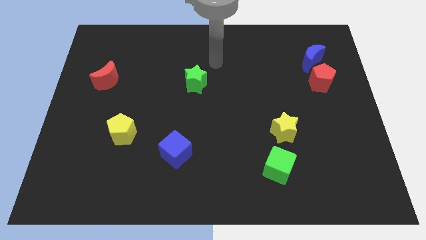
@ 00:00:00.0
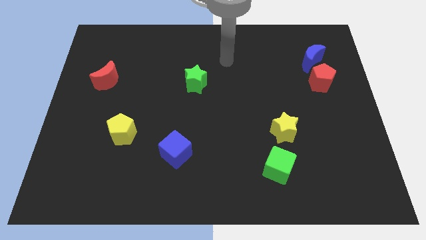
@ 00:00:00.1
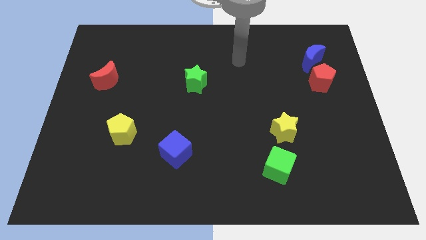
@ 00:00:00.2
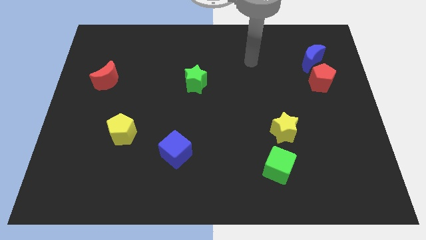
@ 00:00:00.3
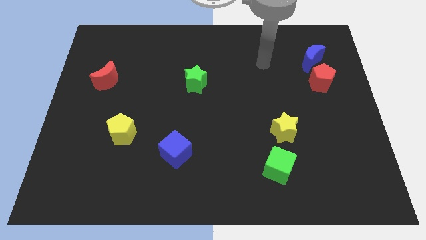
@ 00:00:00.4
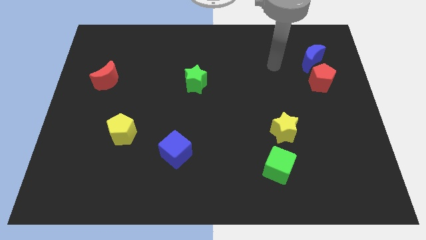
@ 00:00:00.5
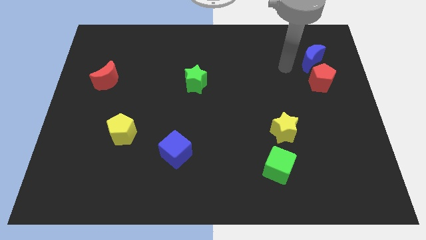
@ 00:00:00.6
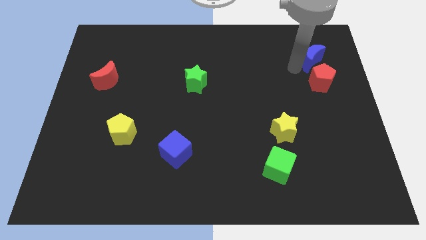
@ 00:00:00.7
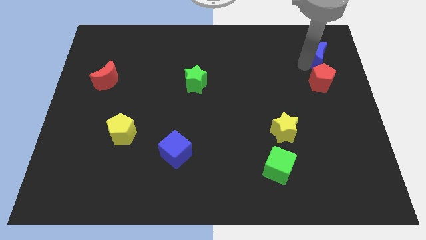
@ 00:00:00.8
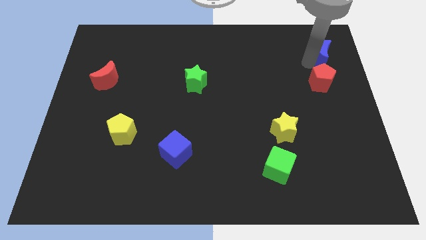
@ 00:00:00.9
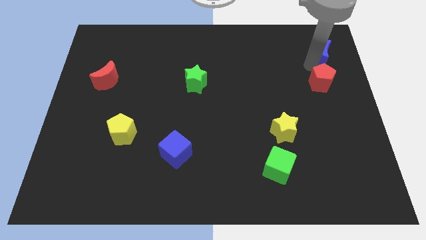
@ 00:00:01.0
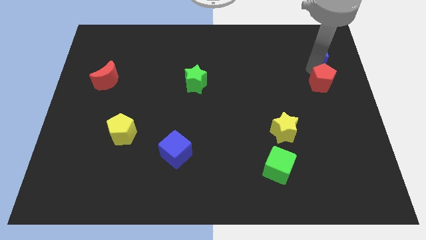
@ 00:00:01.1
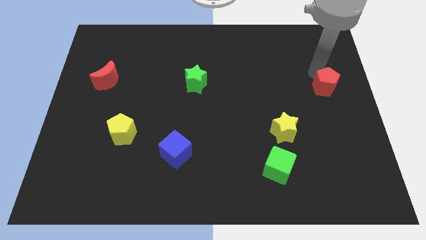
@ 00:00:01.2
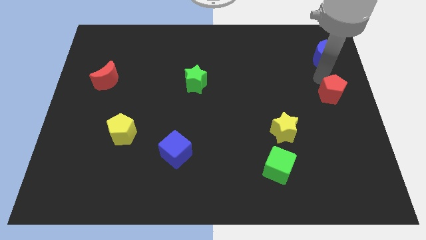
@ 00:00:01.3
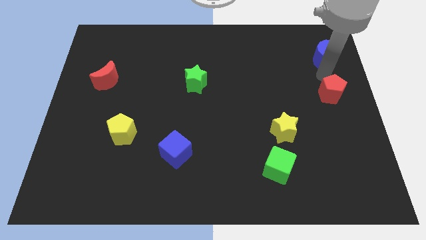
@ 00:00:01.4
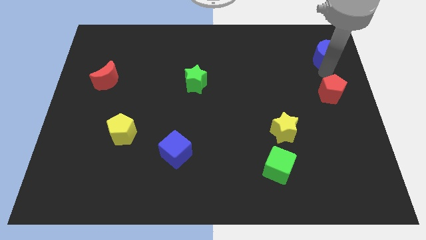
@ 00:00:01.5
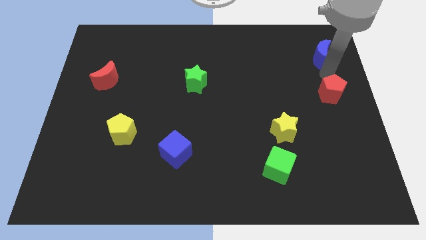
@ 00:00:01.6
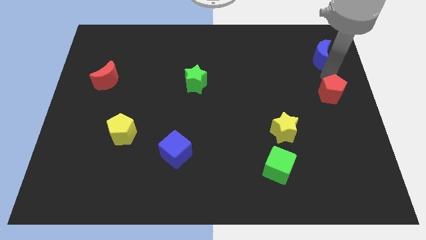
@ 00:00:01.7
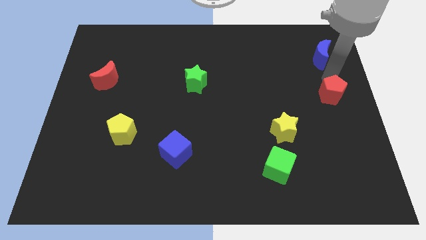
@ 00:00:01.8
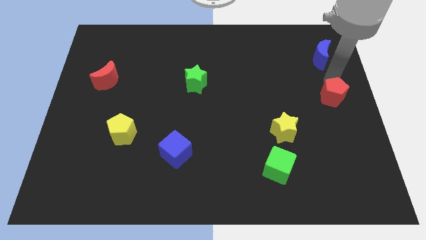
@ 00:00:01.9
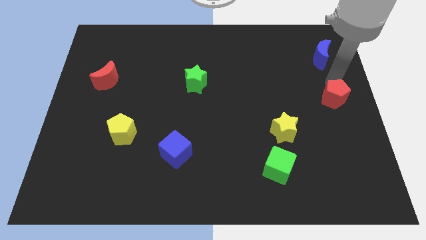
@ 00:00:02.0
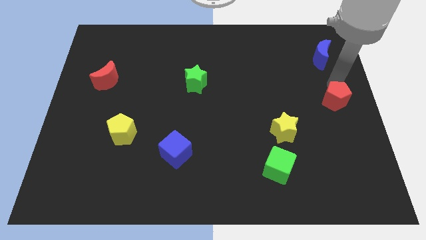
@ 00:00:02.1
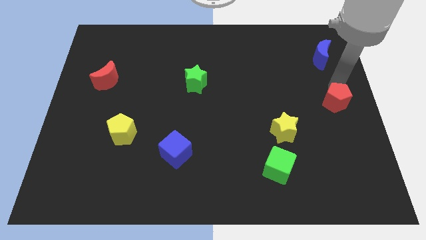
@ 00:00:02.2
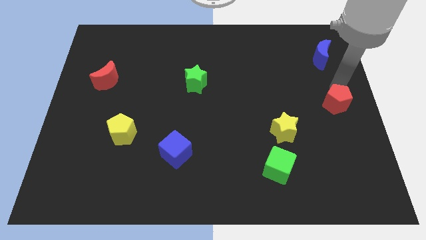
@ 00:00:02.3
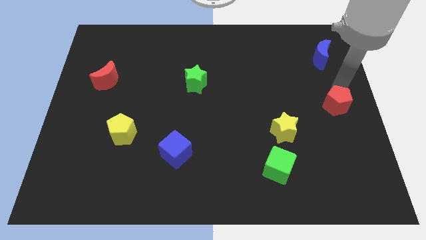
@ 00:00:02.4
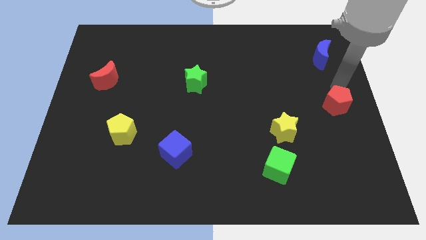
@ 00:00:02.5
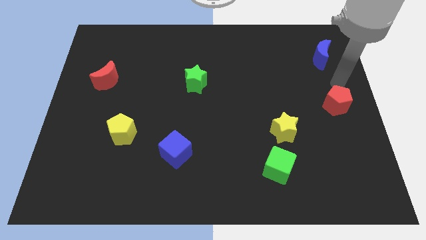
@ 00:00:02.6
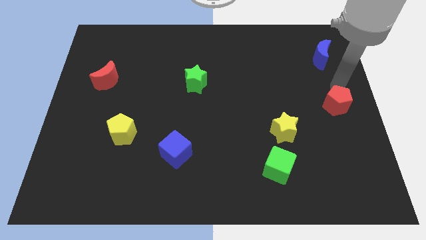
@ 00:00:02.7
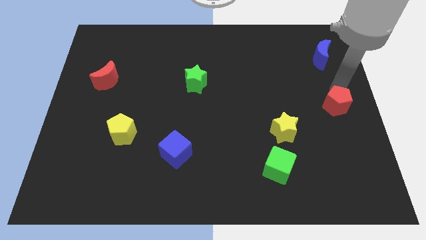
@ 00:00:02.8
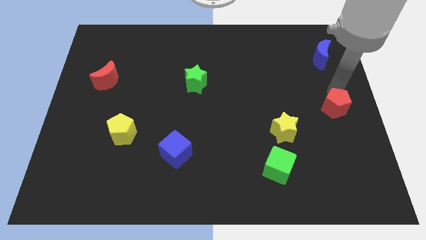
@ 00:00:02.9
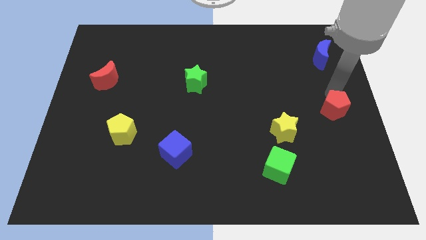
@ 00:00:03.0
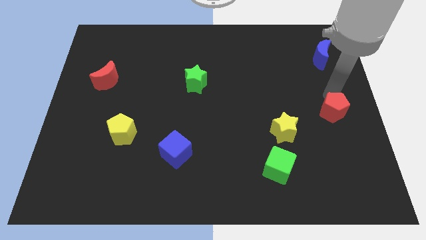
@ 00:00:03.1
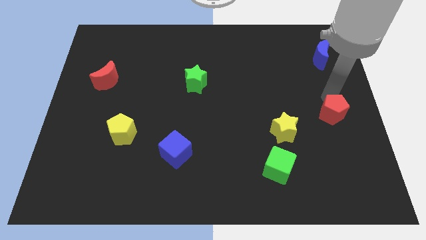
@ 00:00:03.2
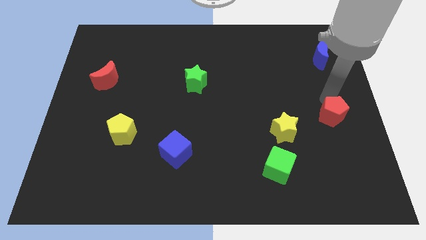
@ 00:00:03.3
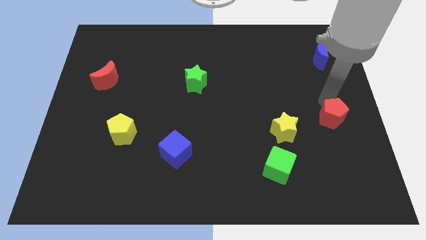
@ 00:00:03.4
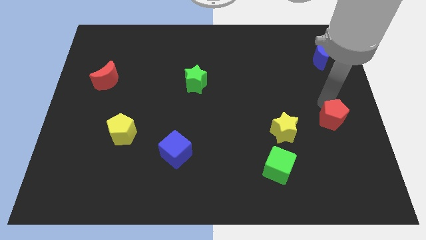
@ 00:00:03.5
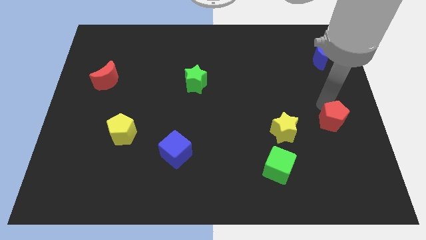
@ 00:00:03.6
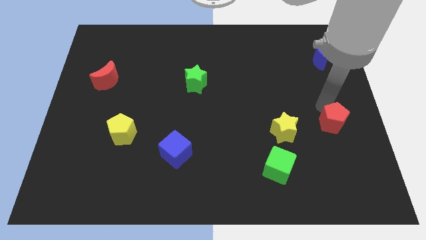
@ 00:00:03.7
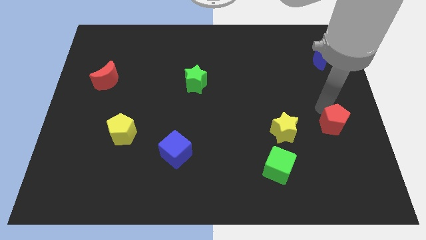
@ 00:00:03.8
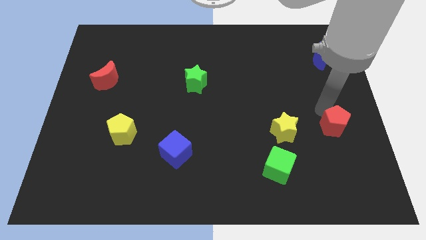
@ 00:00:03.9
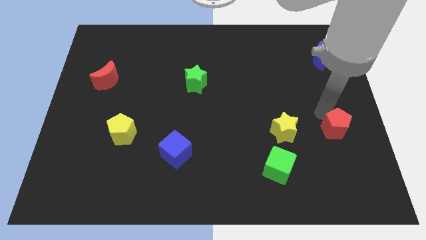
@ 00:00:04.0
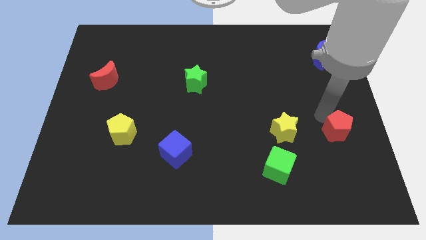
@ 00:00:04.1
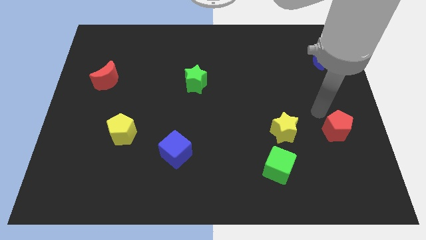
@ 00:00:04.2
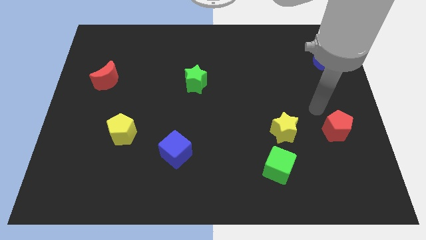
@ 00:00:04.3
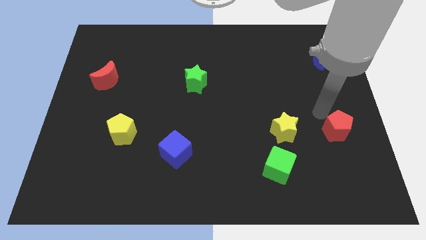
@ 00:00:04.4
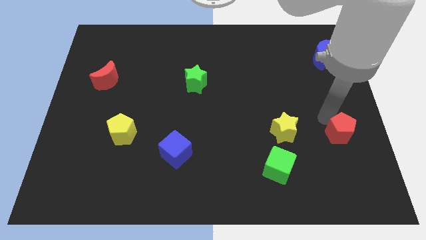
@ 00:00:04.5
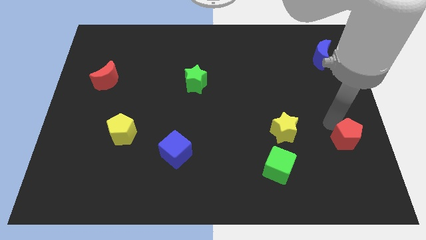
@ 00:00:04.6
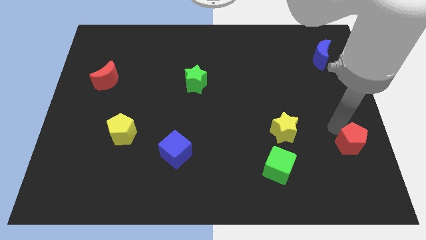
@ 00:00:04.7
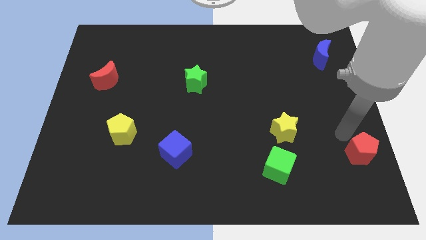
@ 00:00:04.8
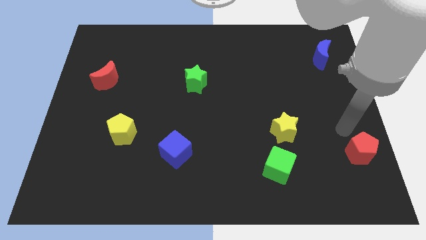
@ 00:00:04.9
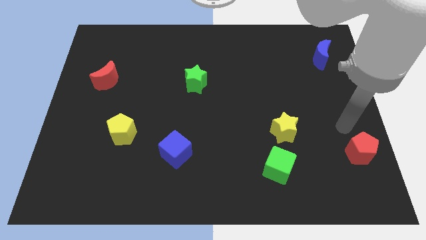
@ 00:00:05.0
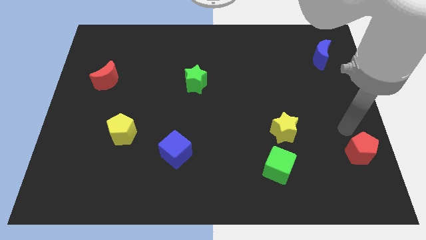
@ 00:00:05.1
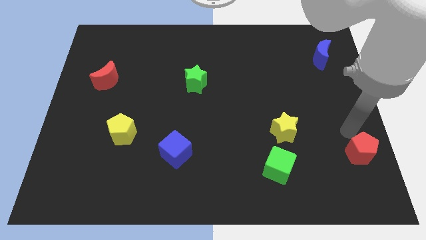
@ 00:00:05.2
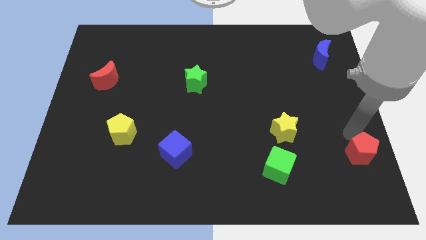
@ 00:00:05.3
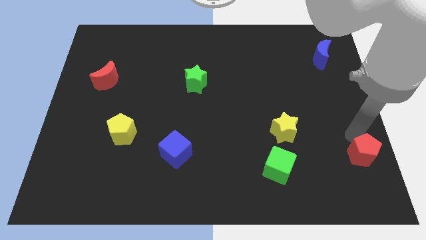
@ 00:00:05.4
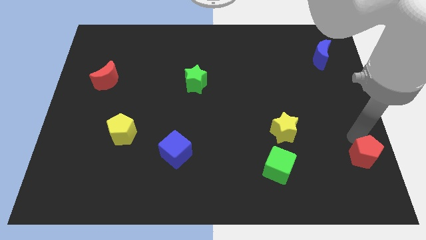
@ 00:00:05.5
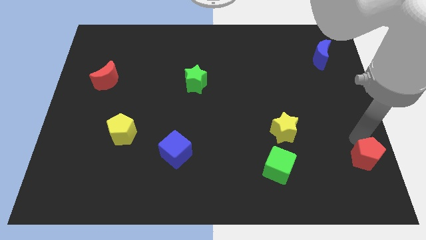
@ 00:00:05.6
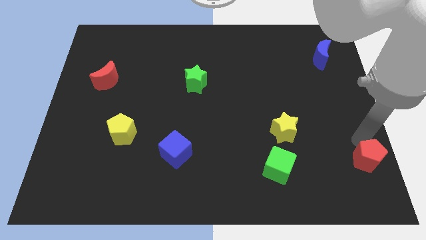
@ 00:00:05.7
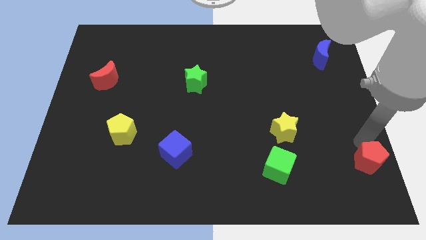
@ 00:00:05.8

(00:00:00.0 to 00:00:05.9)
move the red pentagon to the bottom right of the board

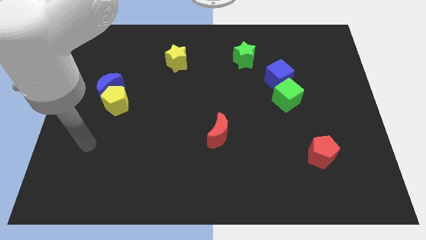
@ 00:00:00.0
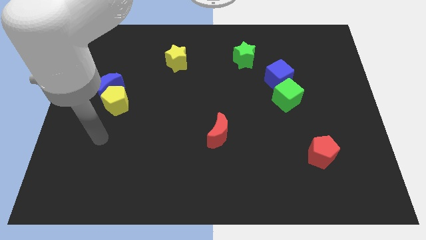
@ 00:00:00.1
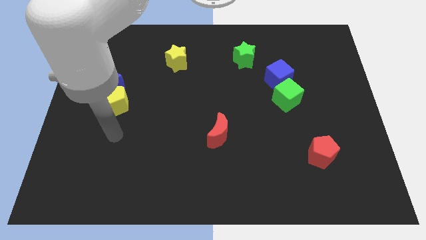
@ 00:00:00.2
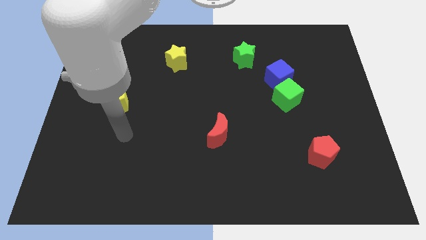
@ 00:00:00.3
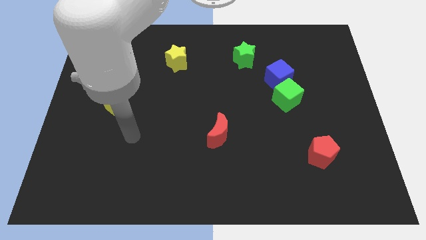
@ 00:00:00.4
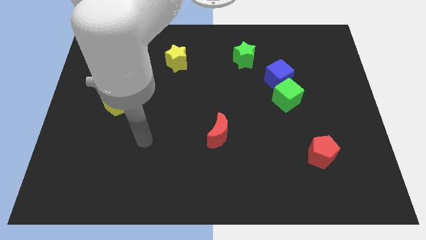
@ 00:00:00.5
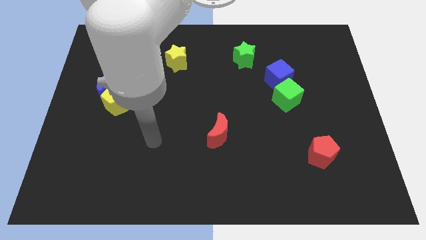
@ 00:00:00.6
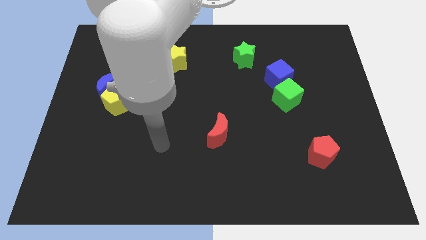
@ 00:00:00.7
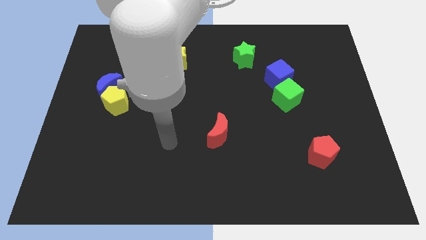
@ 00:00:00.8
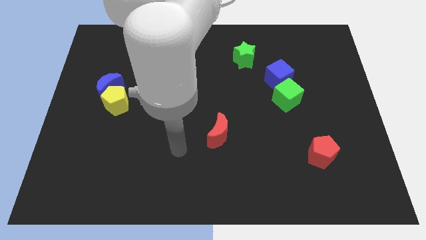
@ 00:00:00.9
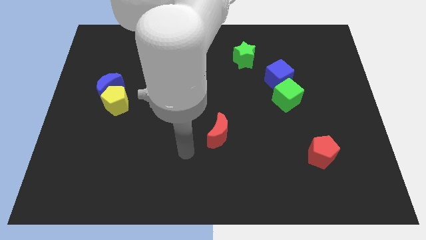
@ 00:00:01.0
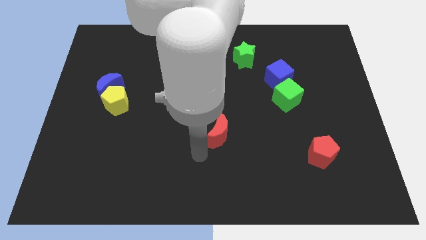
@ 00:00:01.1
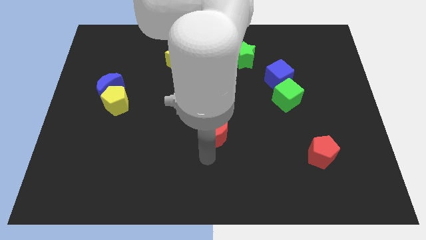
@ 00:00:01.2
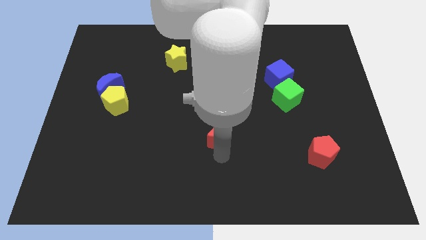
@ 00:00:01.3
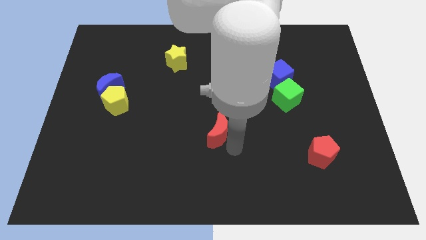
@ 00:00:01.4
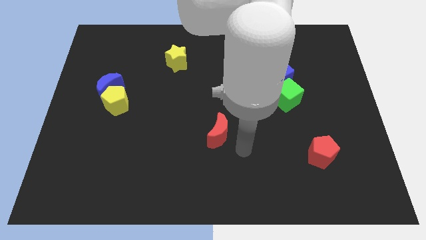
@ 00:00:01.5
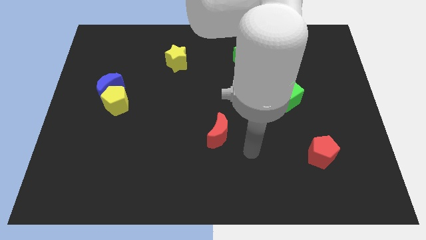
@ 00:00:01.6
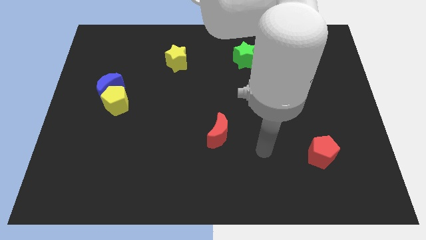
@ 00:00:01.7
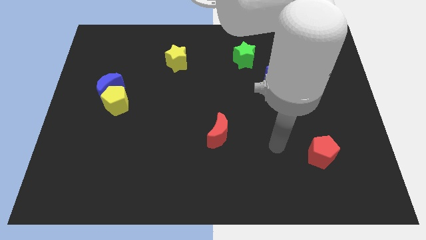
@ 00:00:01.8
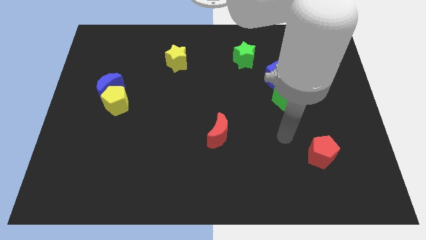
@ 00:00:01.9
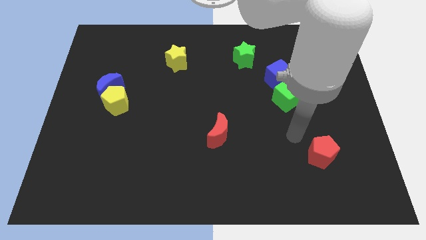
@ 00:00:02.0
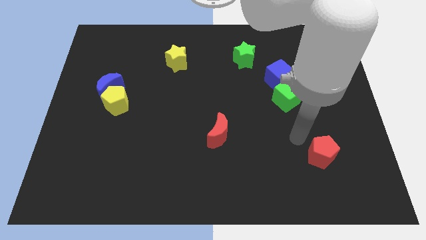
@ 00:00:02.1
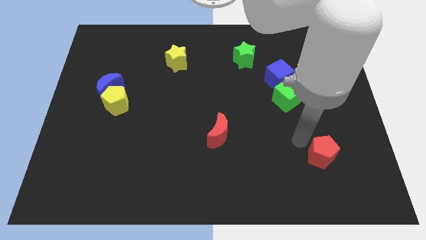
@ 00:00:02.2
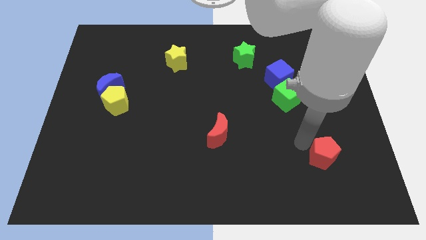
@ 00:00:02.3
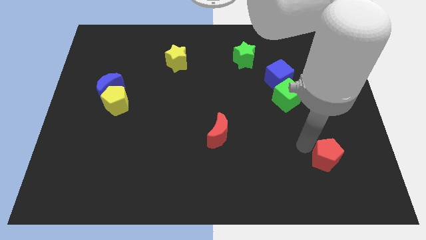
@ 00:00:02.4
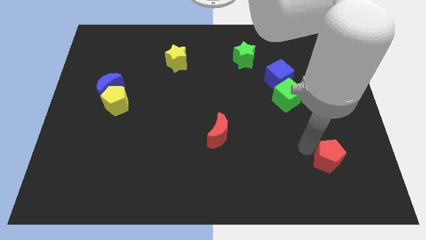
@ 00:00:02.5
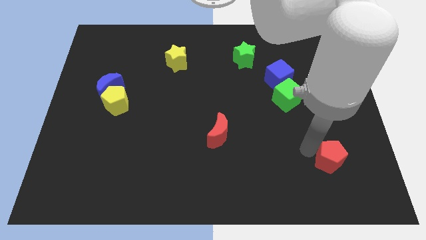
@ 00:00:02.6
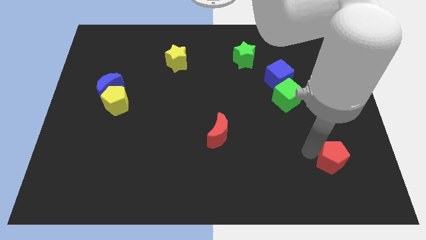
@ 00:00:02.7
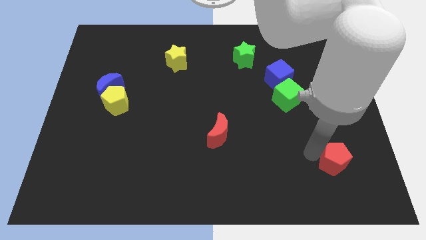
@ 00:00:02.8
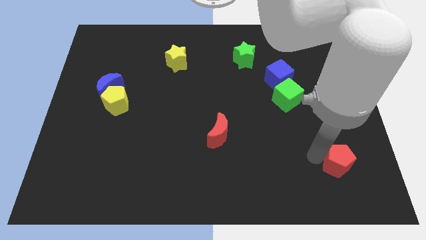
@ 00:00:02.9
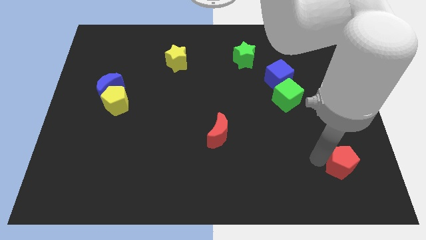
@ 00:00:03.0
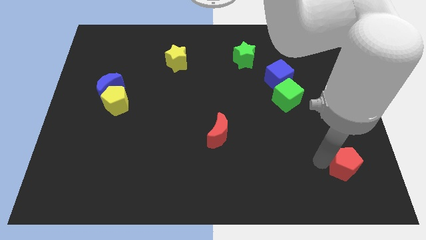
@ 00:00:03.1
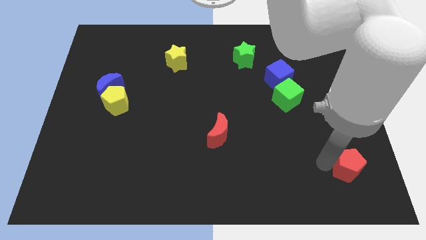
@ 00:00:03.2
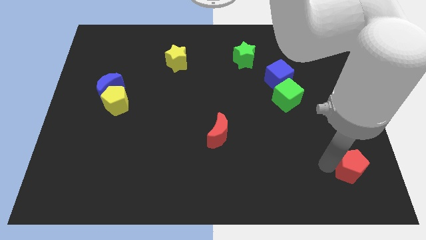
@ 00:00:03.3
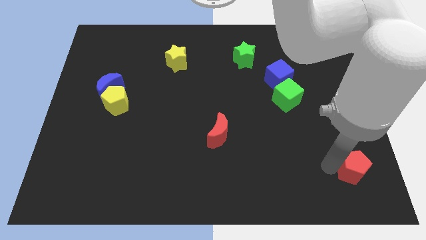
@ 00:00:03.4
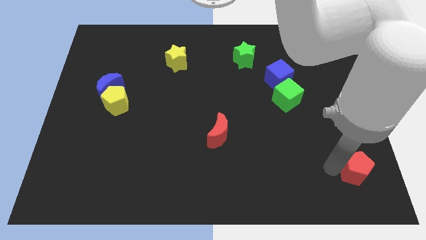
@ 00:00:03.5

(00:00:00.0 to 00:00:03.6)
put the red pentagon to the bottom right of the board
